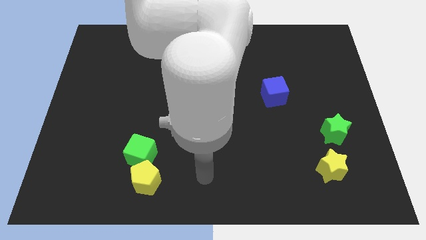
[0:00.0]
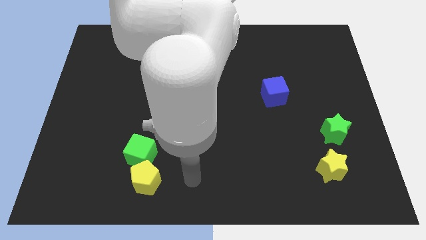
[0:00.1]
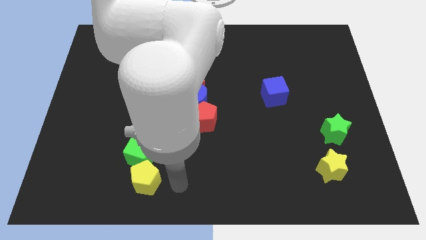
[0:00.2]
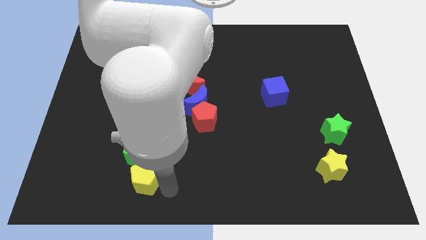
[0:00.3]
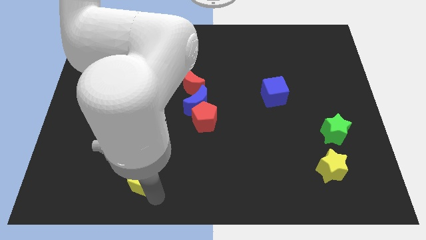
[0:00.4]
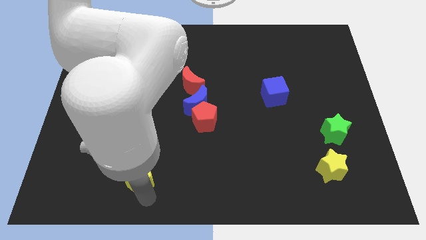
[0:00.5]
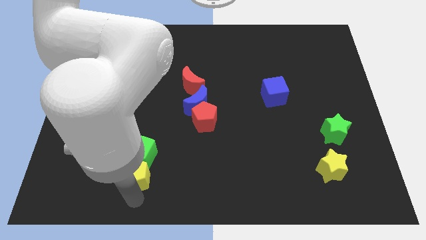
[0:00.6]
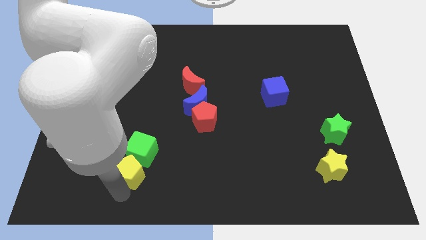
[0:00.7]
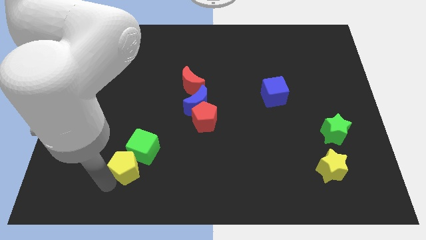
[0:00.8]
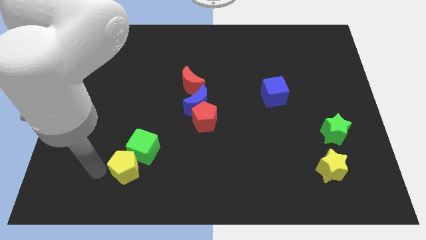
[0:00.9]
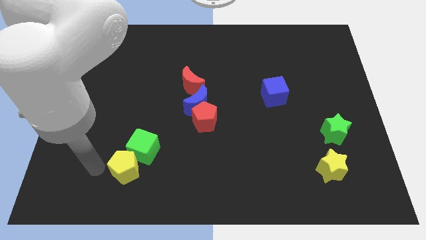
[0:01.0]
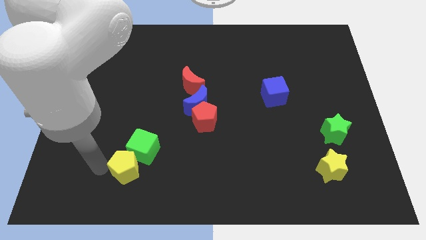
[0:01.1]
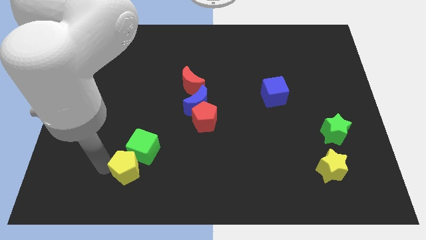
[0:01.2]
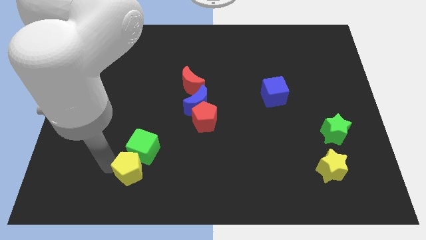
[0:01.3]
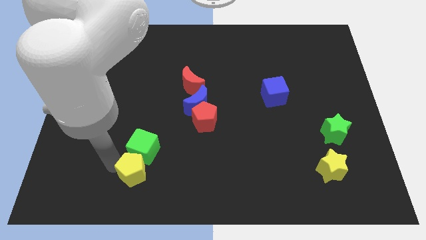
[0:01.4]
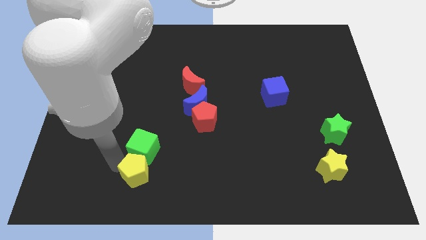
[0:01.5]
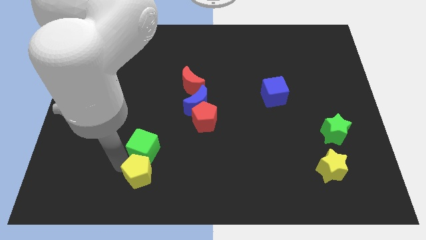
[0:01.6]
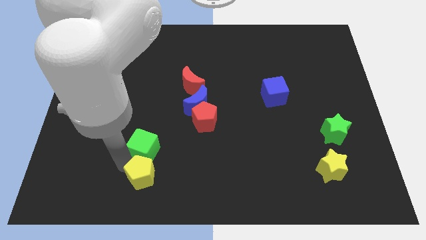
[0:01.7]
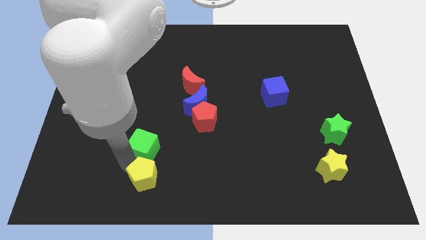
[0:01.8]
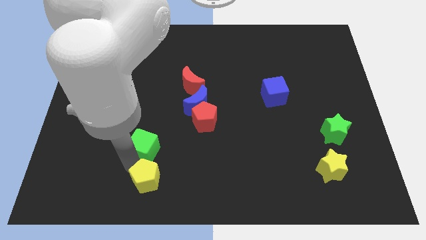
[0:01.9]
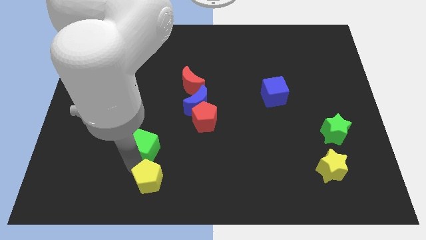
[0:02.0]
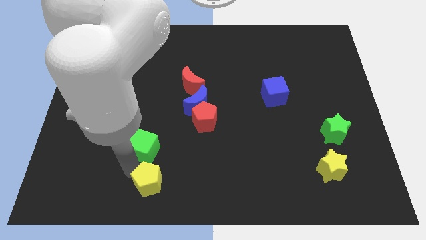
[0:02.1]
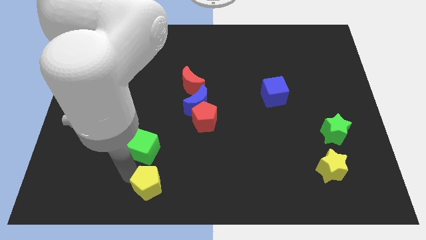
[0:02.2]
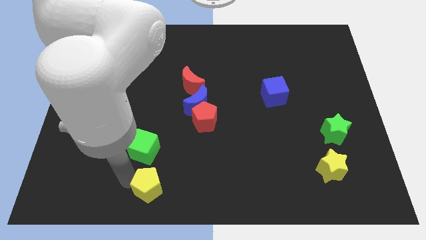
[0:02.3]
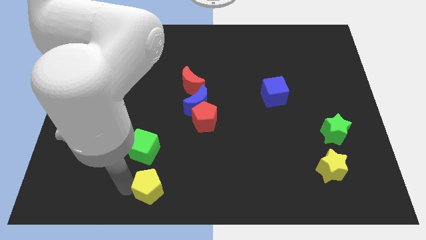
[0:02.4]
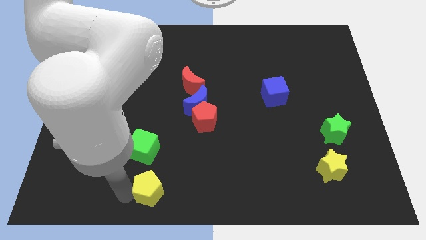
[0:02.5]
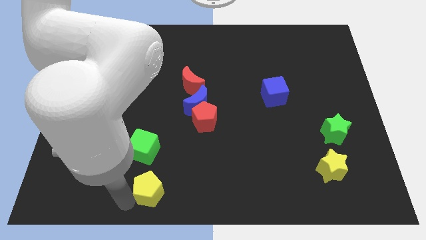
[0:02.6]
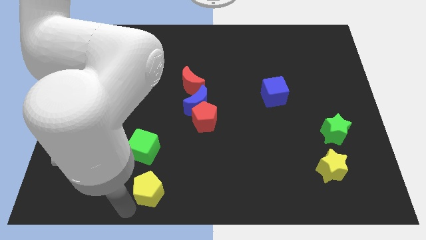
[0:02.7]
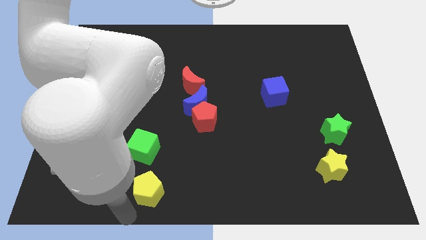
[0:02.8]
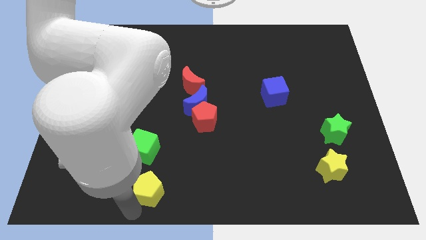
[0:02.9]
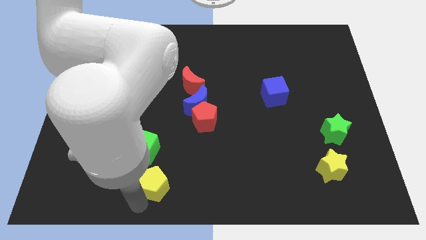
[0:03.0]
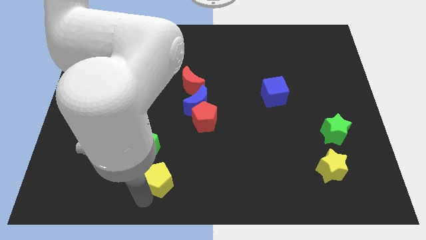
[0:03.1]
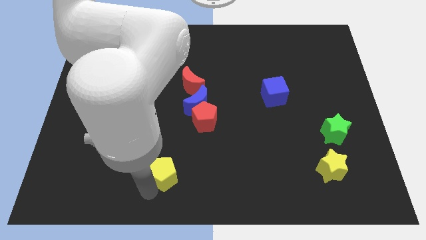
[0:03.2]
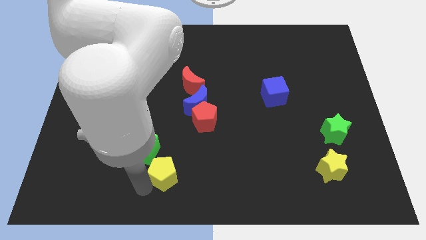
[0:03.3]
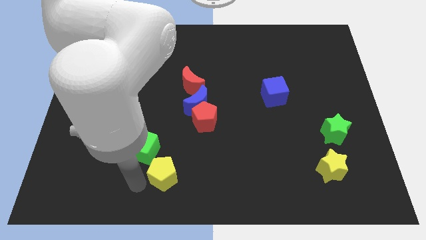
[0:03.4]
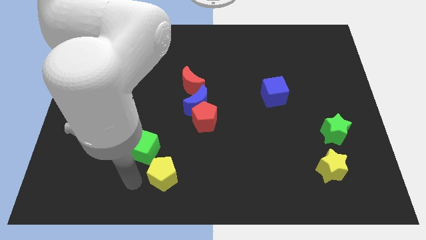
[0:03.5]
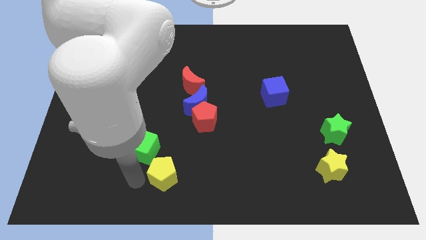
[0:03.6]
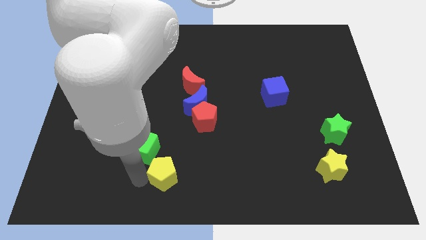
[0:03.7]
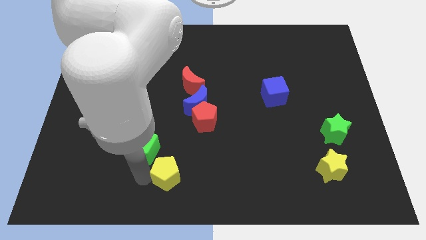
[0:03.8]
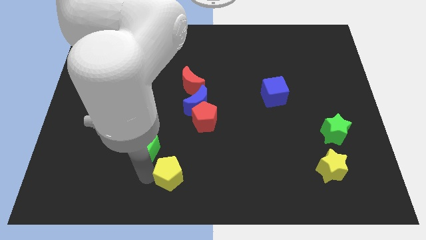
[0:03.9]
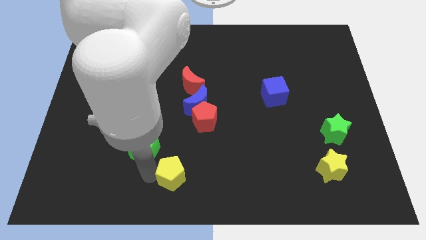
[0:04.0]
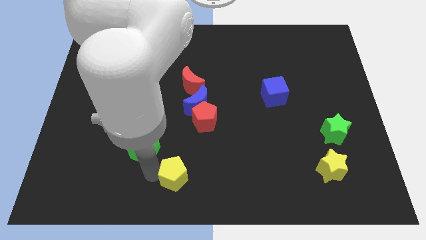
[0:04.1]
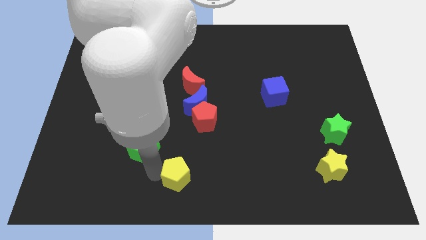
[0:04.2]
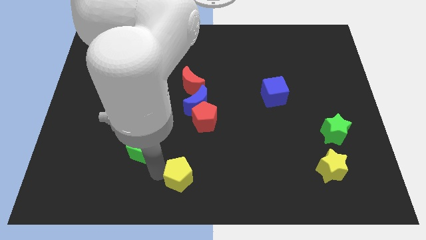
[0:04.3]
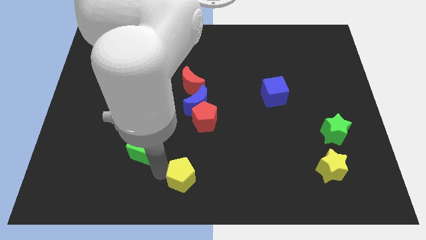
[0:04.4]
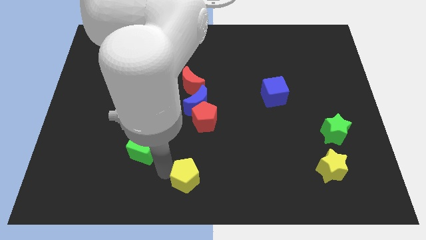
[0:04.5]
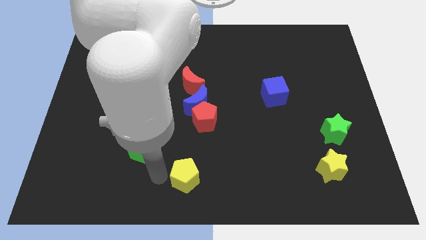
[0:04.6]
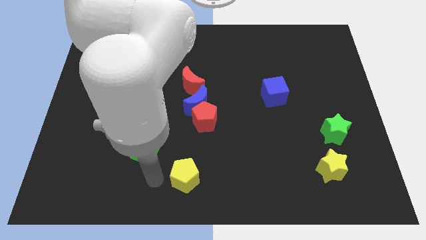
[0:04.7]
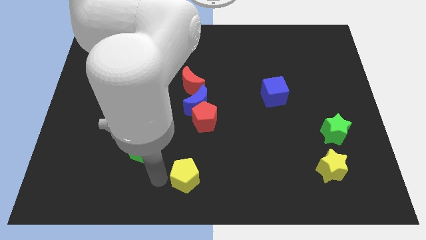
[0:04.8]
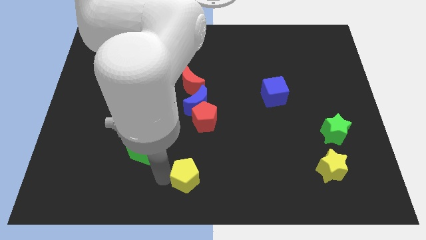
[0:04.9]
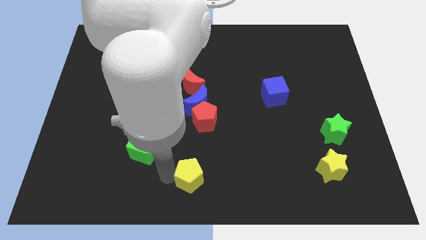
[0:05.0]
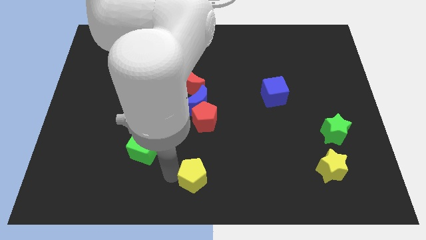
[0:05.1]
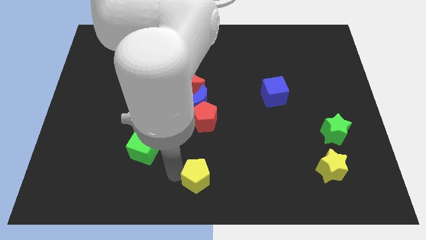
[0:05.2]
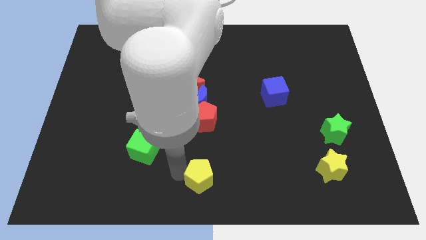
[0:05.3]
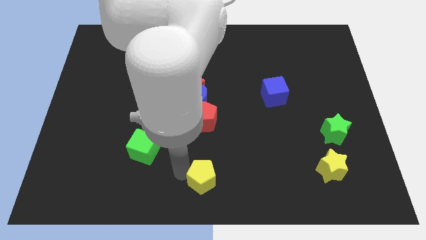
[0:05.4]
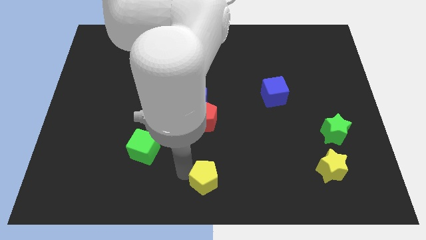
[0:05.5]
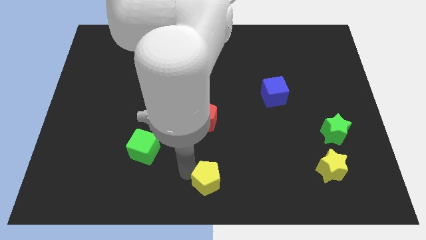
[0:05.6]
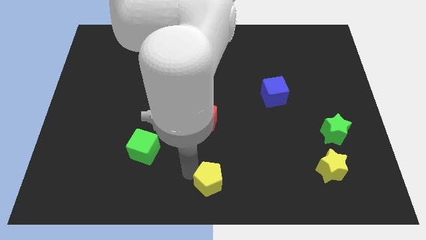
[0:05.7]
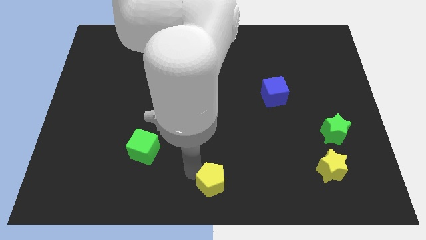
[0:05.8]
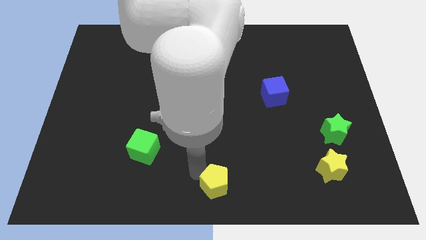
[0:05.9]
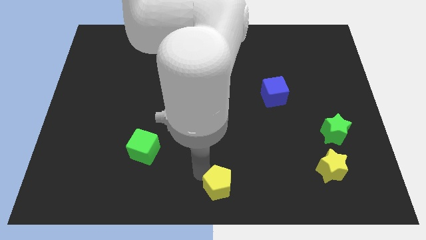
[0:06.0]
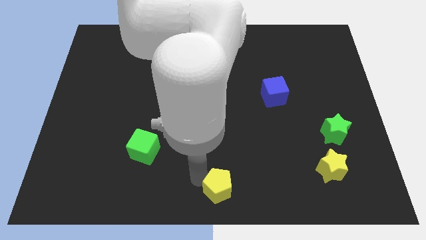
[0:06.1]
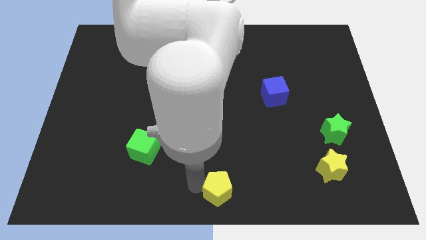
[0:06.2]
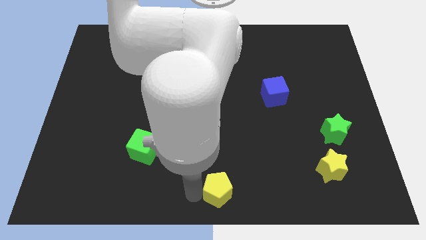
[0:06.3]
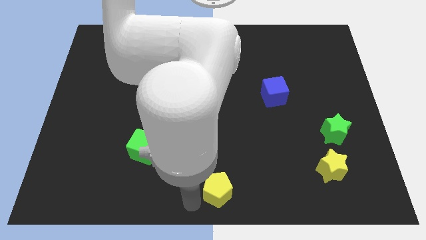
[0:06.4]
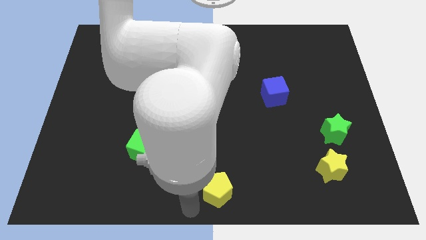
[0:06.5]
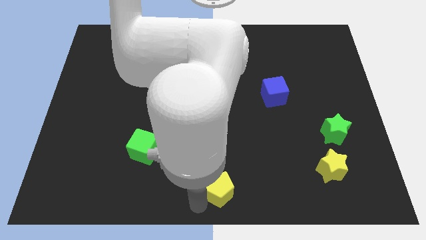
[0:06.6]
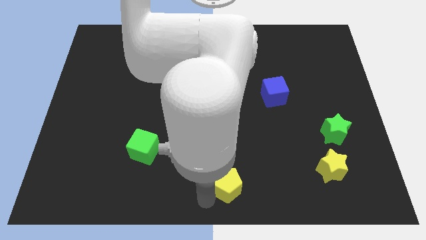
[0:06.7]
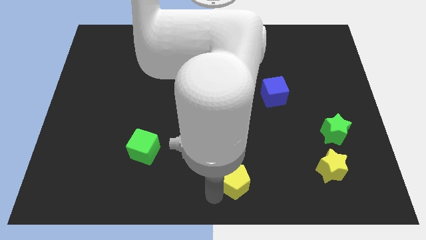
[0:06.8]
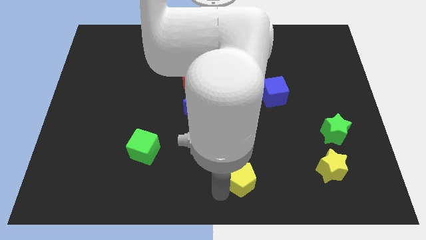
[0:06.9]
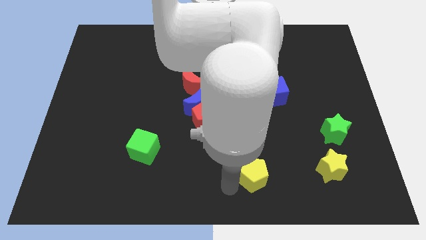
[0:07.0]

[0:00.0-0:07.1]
slide the yellow pentagon to the left side of the yellow star
